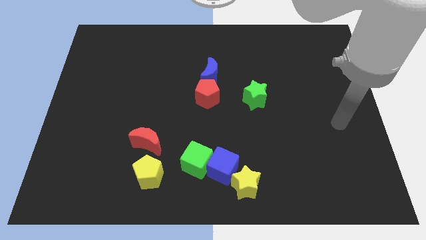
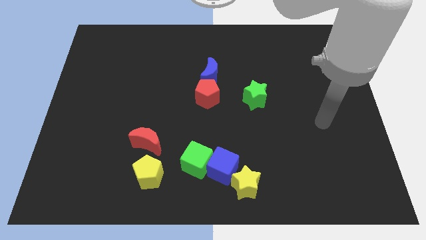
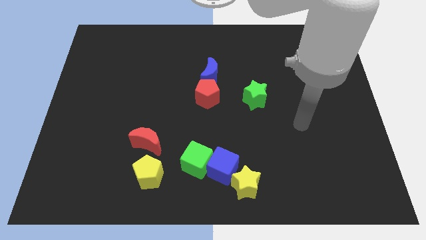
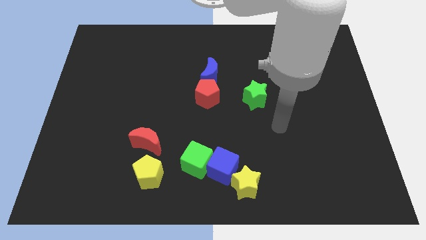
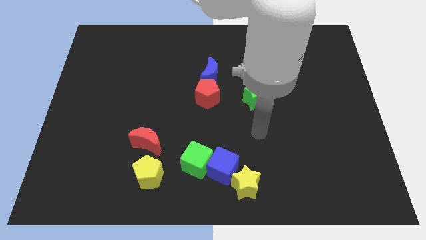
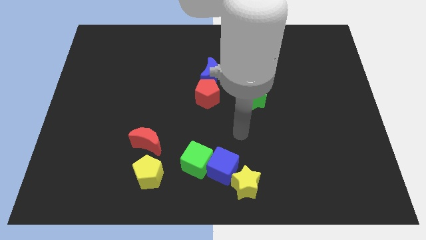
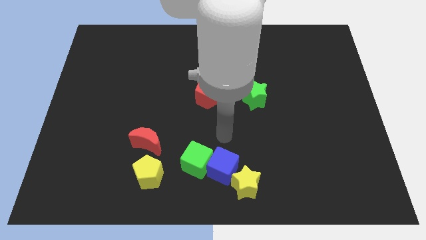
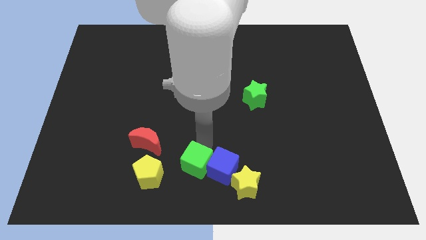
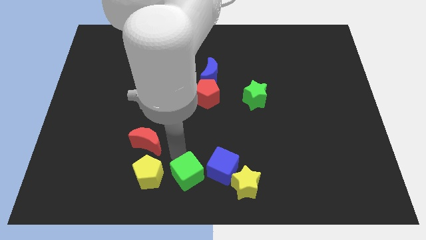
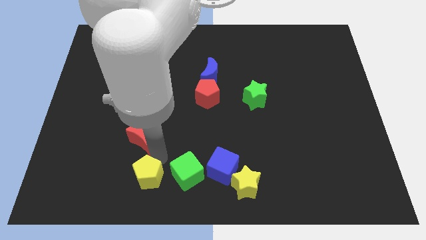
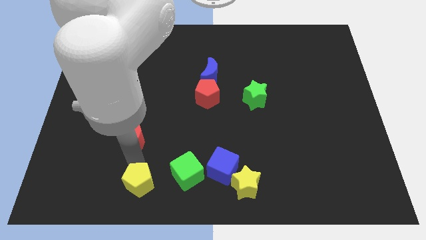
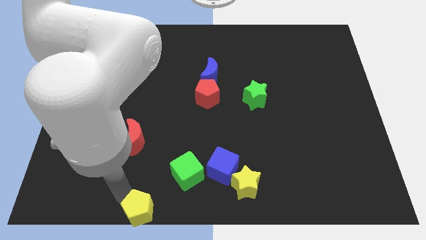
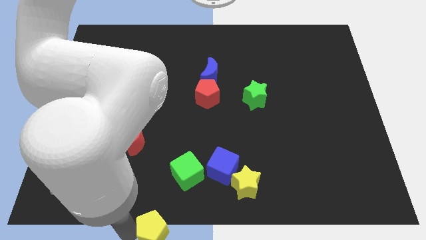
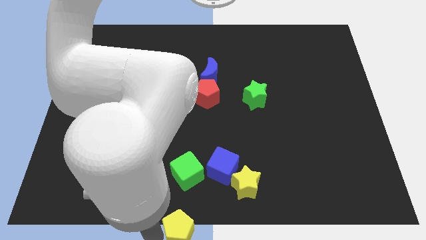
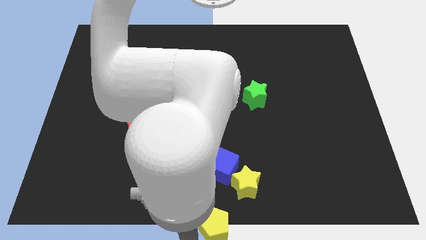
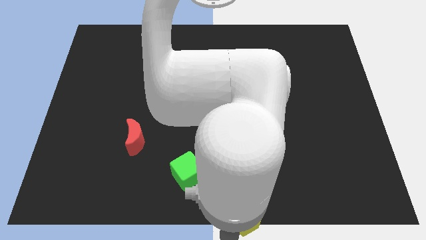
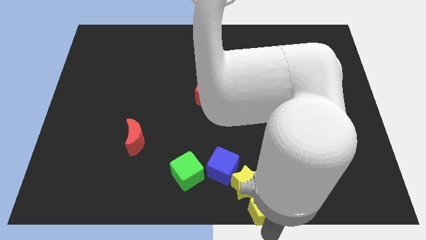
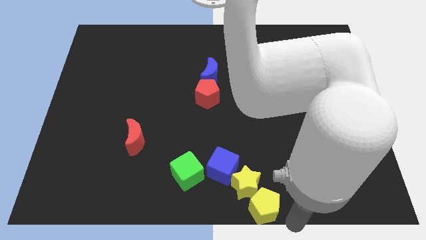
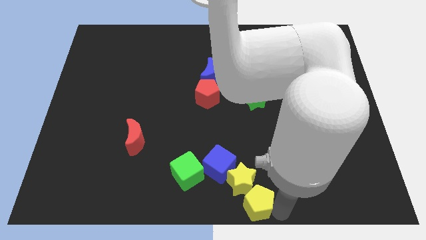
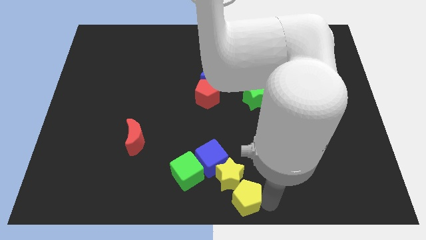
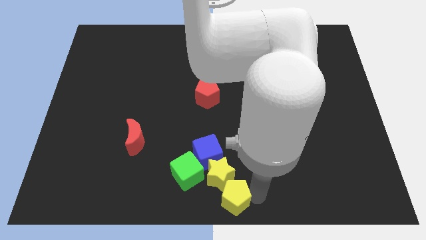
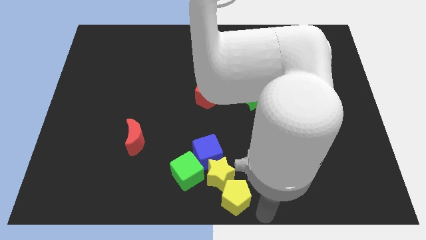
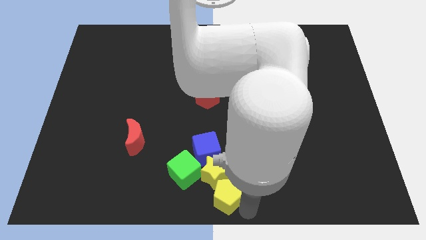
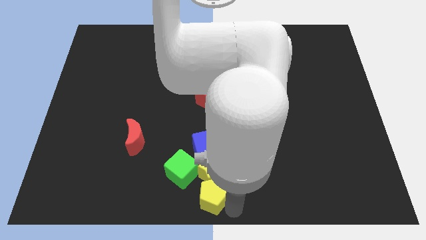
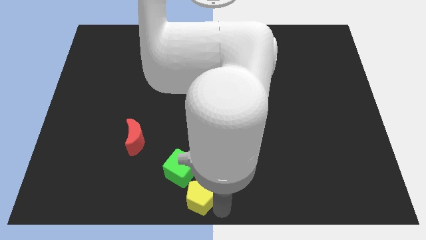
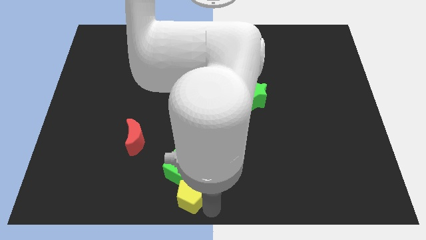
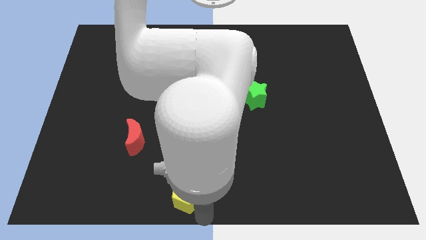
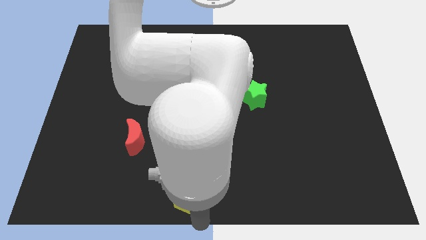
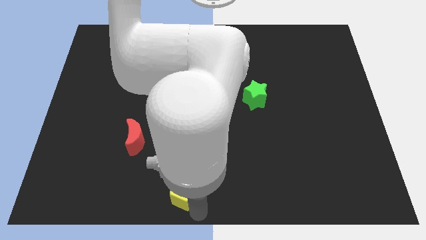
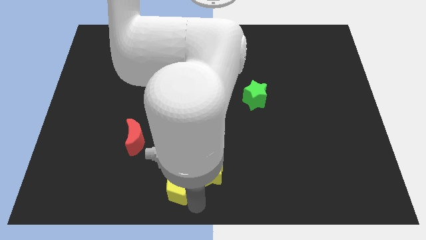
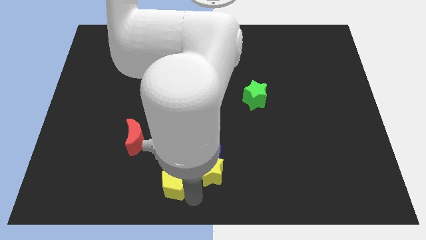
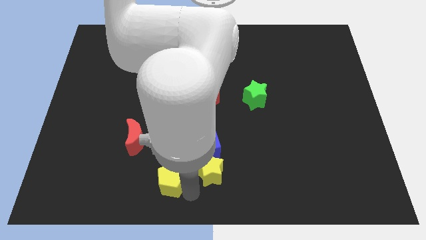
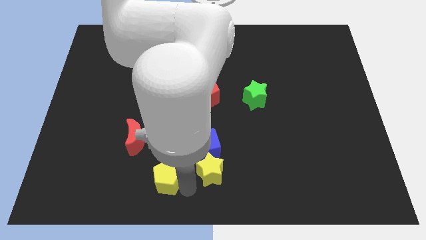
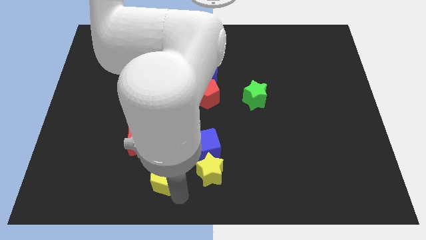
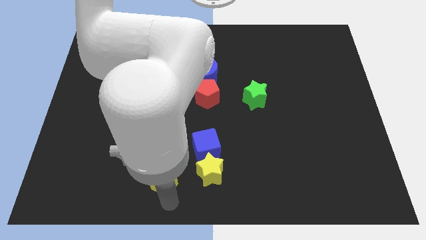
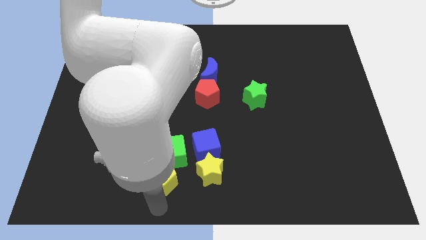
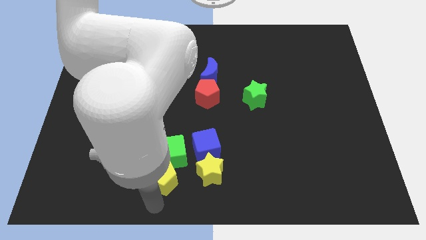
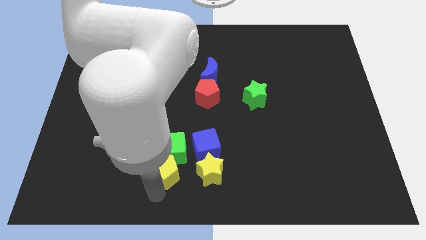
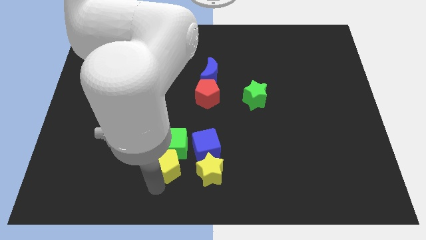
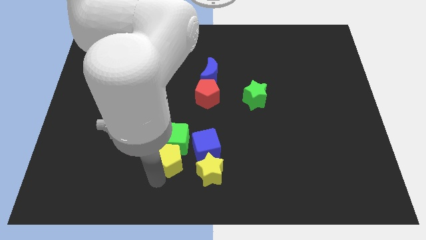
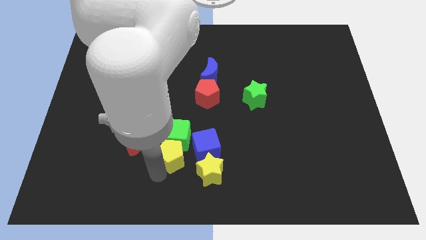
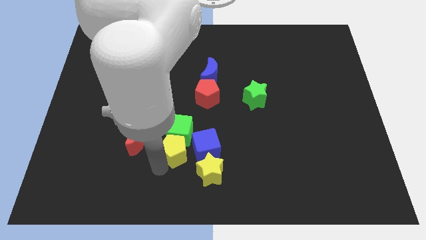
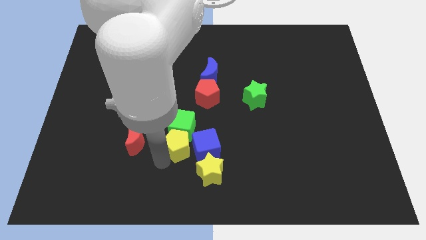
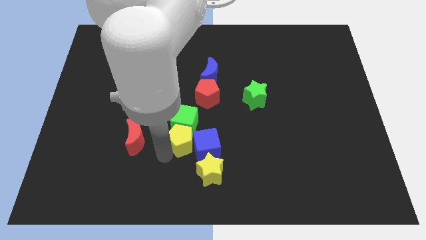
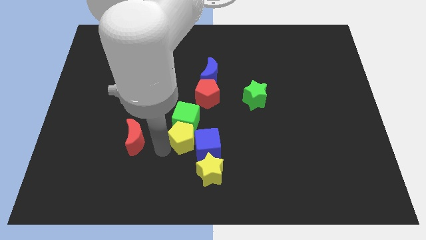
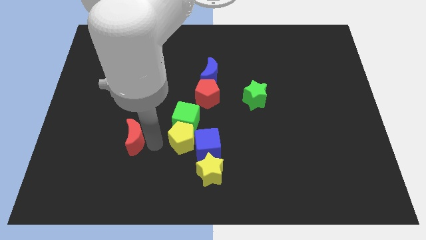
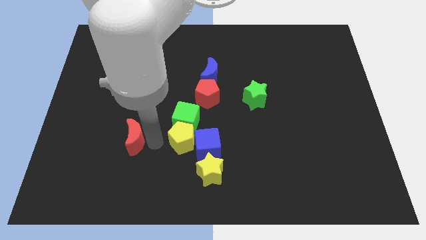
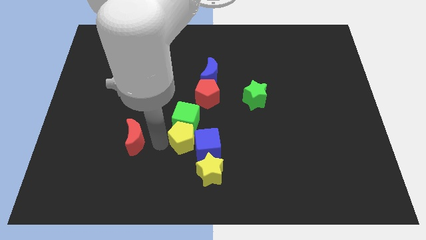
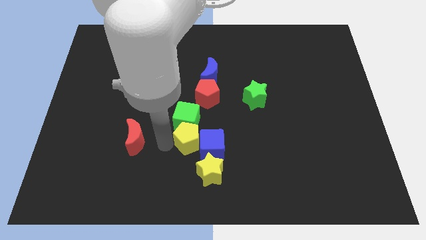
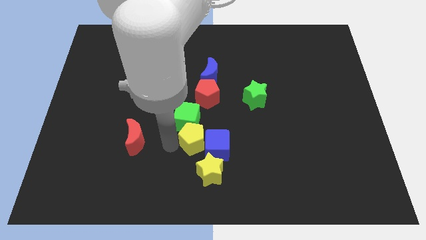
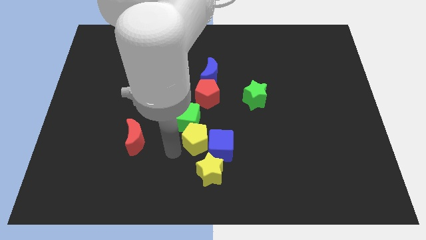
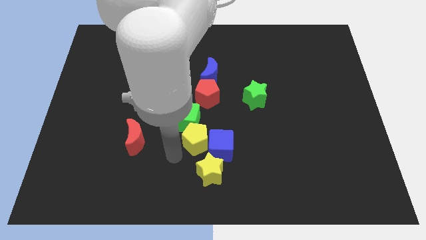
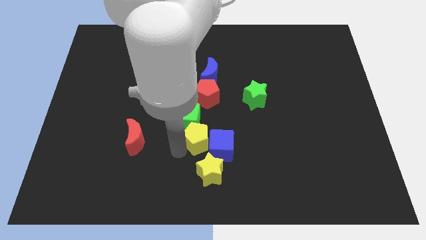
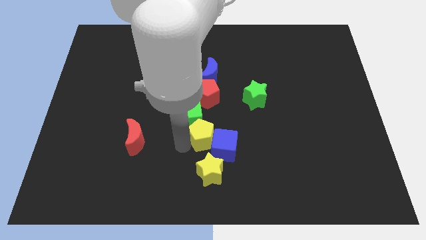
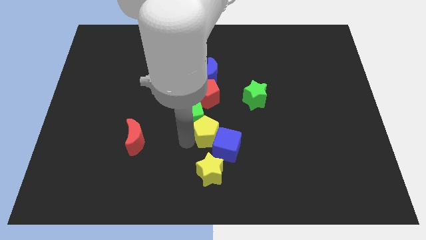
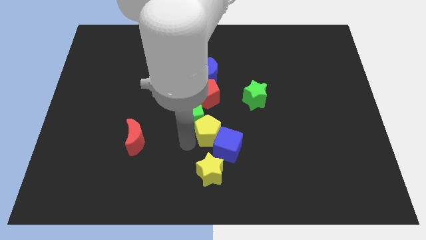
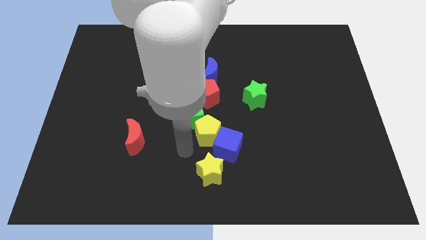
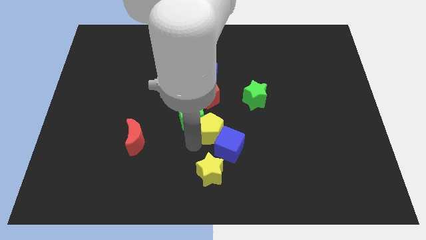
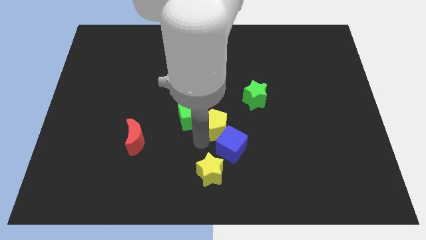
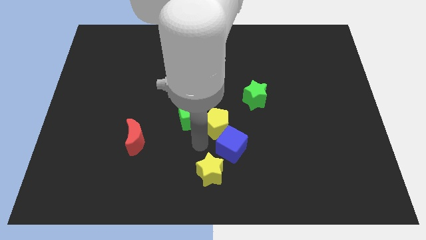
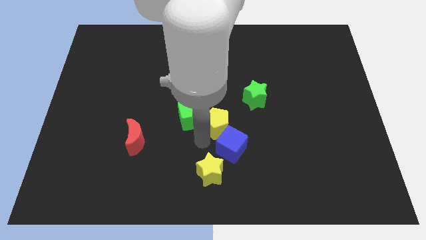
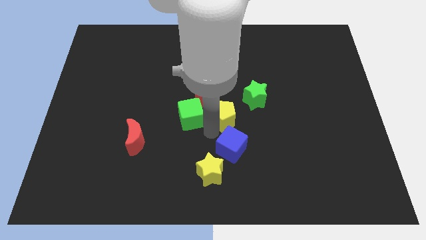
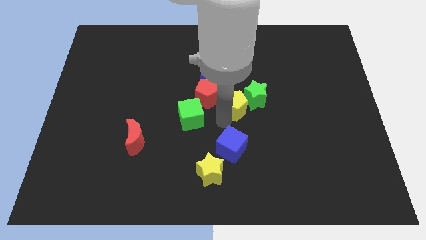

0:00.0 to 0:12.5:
put the yellow pentagon to the bottom right of the blue moon

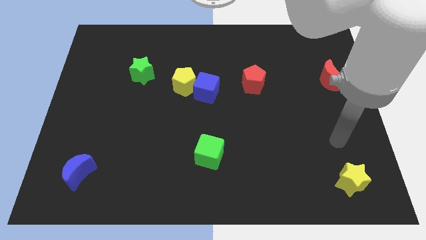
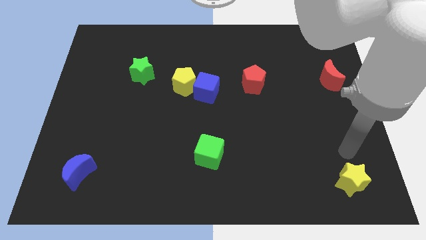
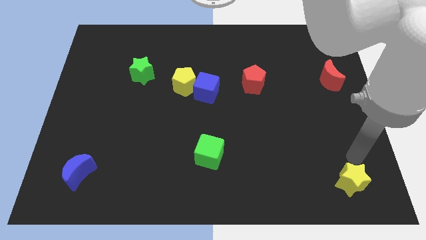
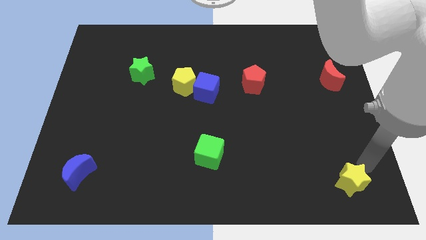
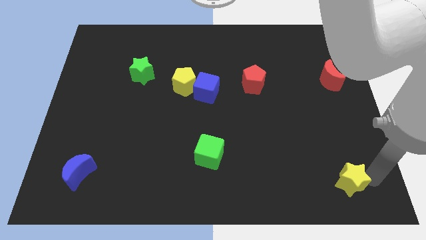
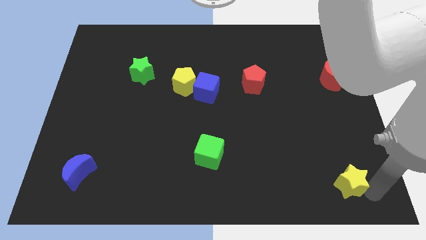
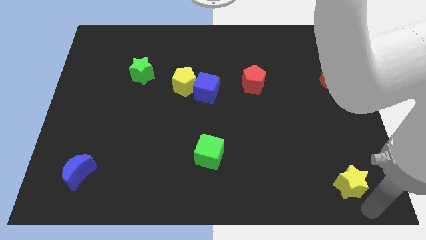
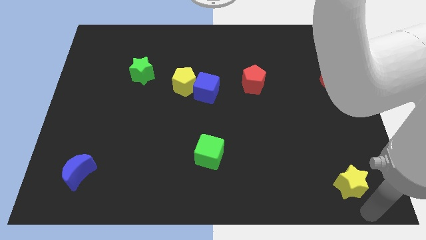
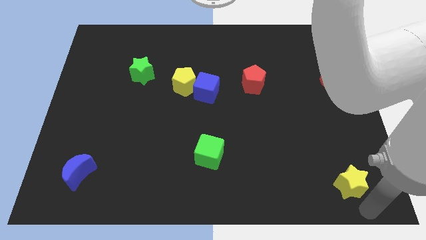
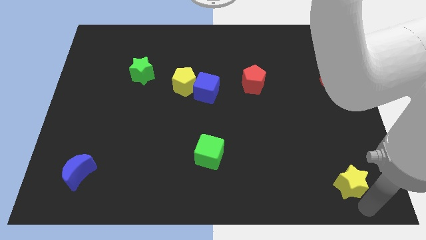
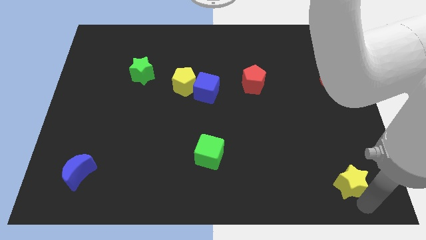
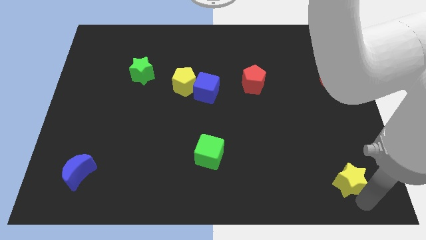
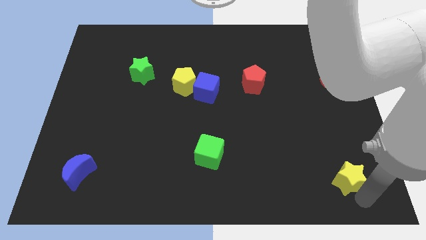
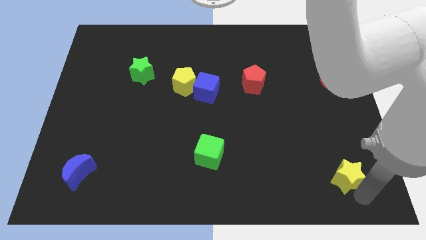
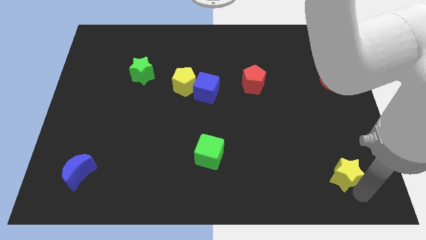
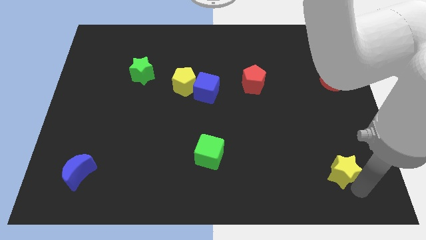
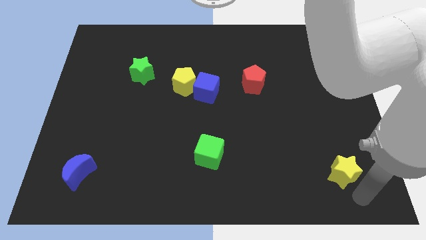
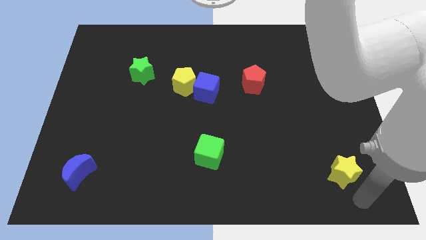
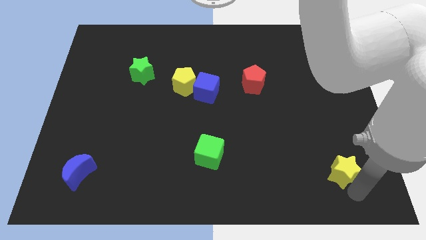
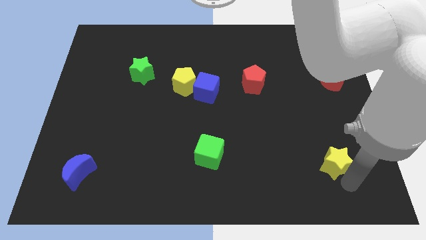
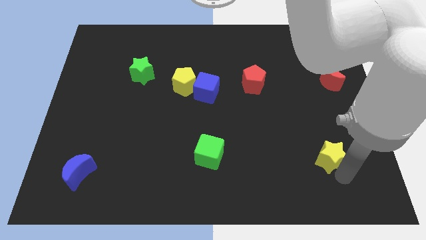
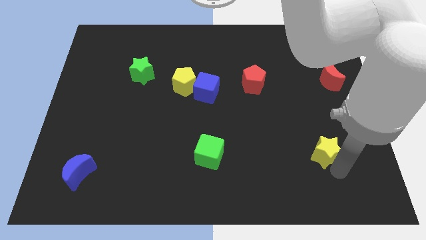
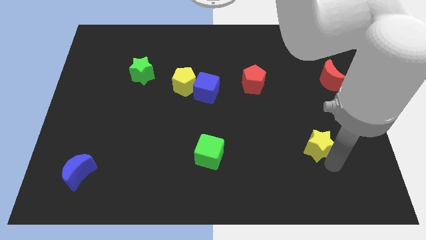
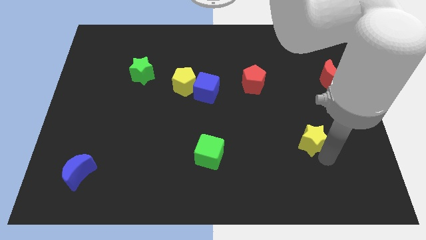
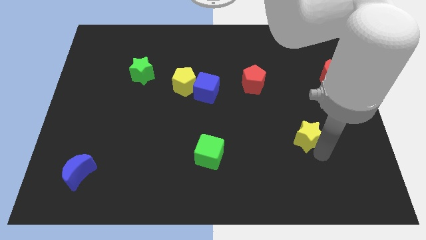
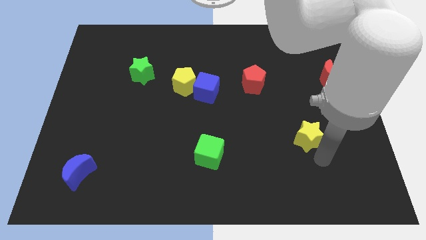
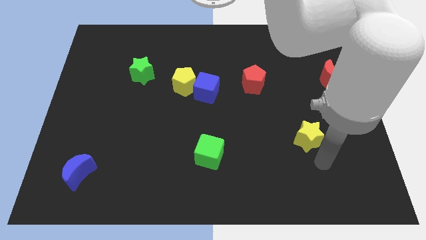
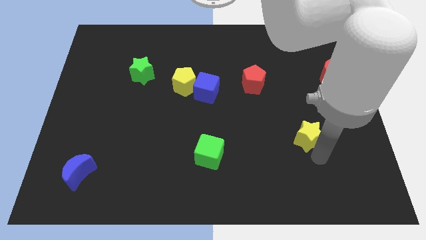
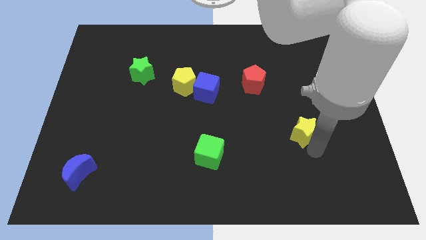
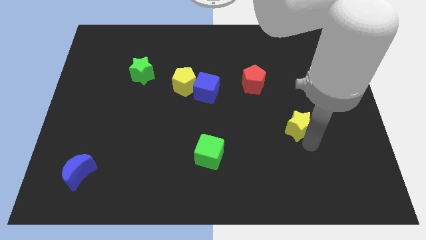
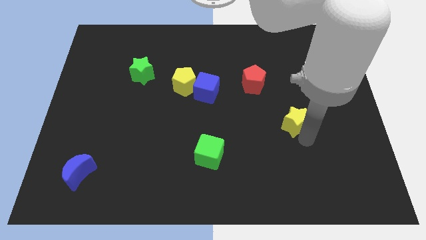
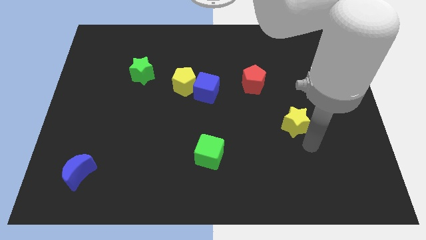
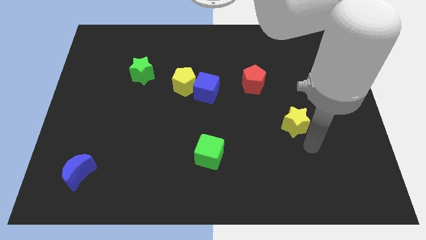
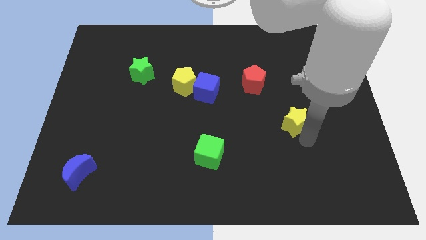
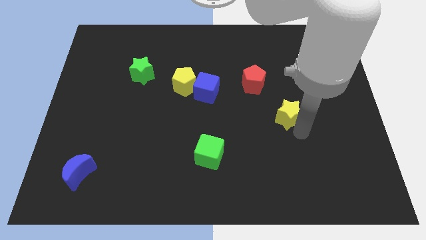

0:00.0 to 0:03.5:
slide the yellow star to the bottom right side of the red pentagon
